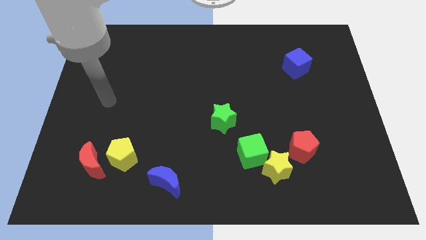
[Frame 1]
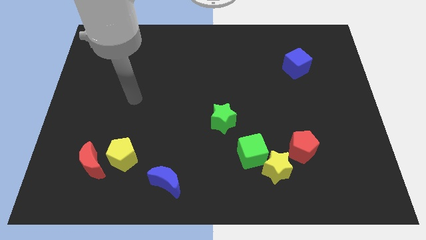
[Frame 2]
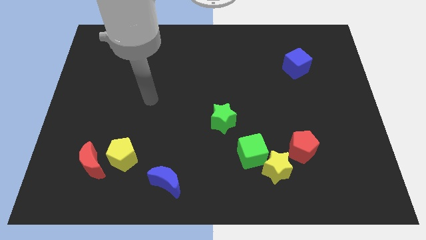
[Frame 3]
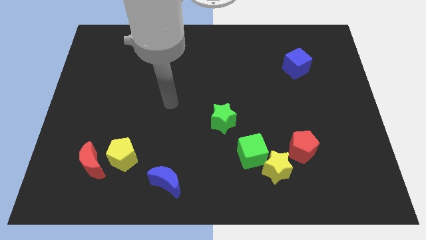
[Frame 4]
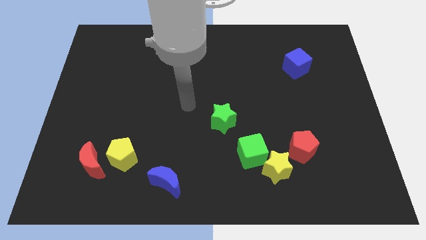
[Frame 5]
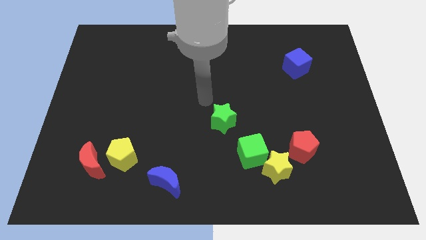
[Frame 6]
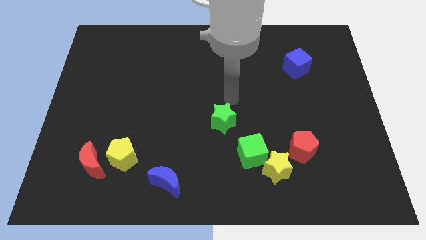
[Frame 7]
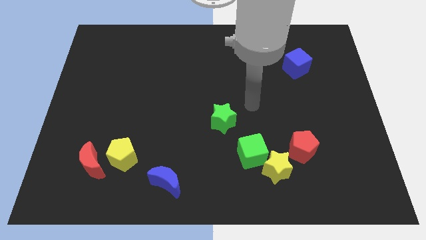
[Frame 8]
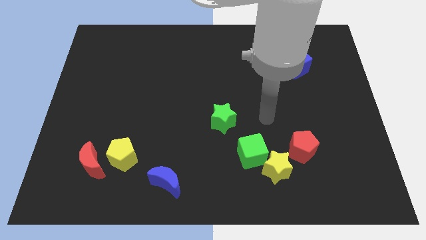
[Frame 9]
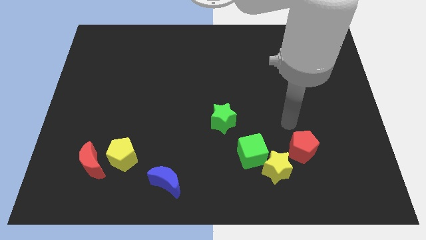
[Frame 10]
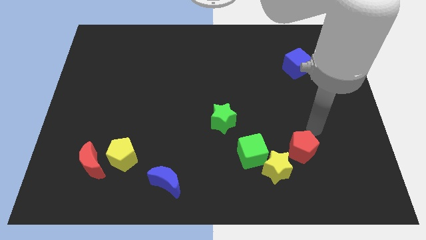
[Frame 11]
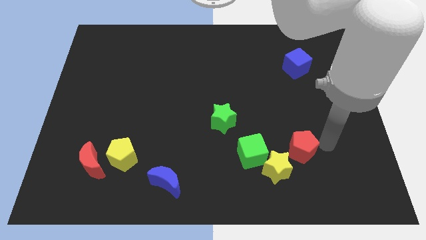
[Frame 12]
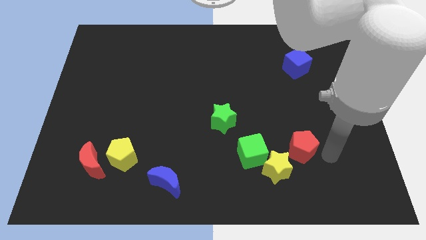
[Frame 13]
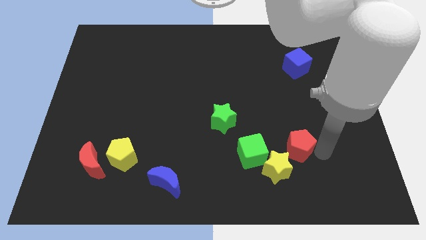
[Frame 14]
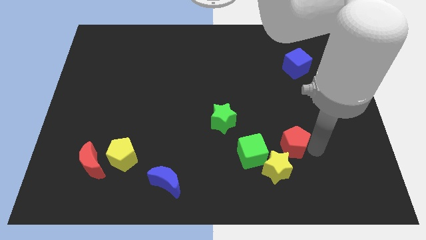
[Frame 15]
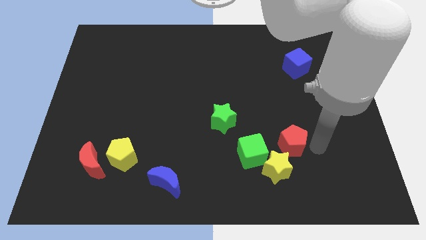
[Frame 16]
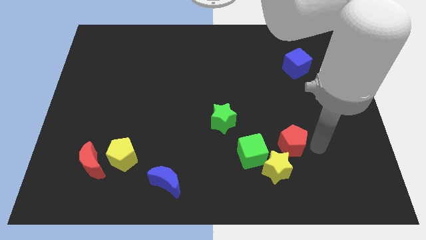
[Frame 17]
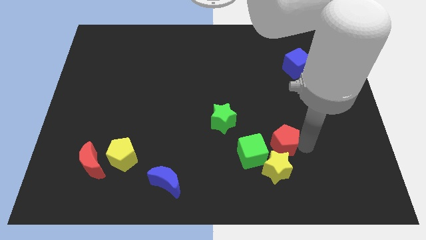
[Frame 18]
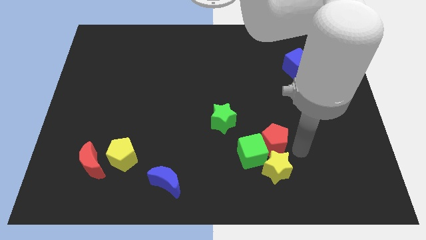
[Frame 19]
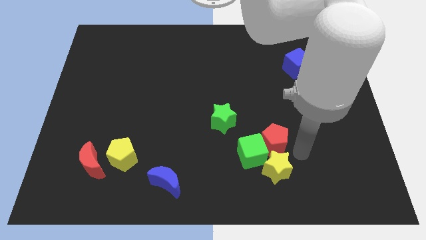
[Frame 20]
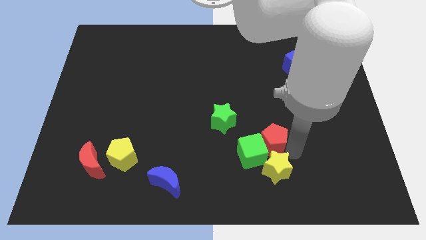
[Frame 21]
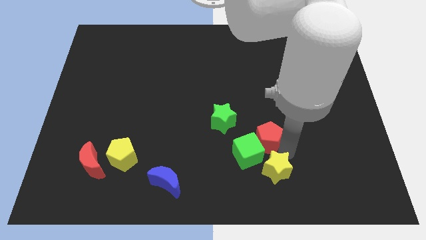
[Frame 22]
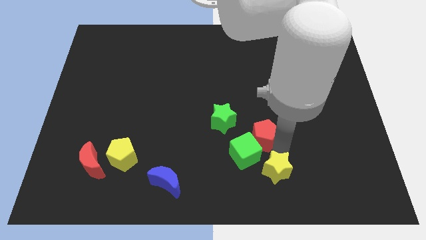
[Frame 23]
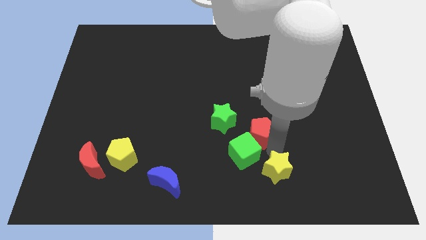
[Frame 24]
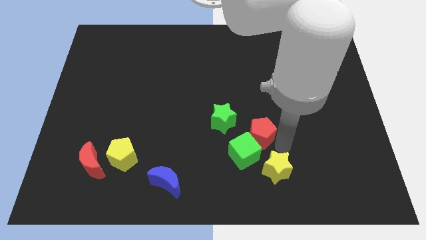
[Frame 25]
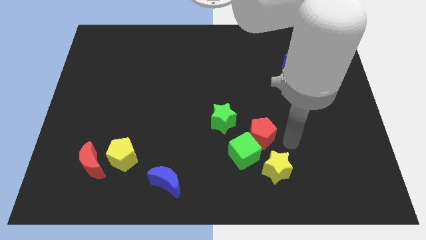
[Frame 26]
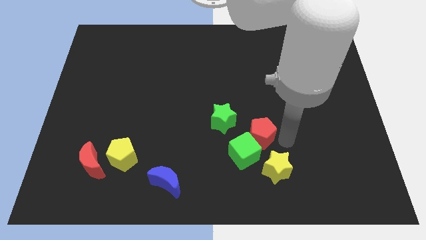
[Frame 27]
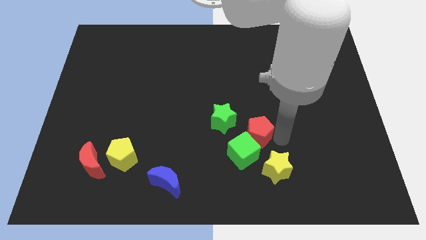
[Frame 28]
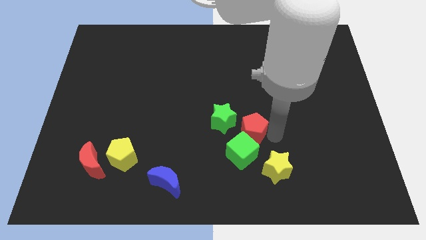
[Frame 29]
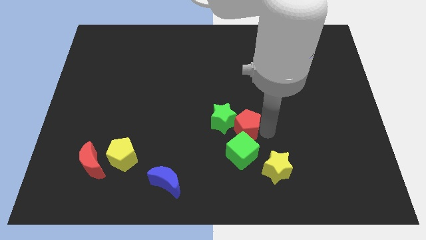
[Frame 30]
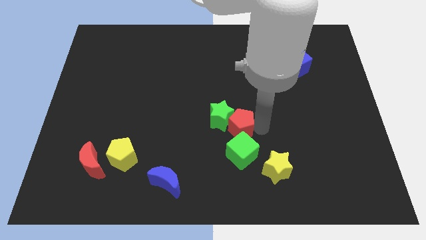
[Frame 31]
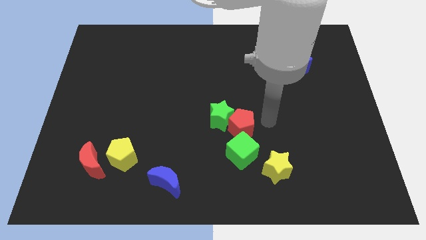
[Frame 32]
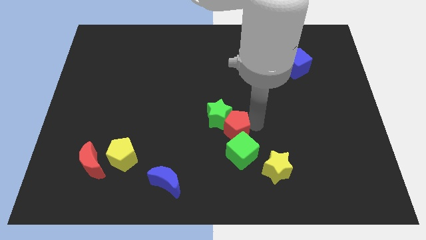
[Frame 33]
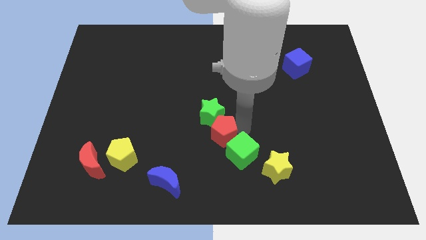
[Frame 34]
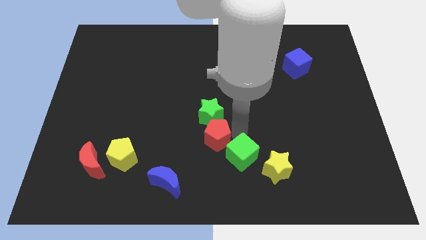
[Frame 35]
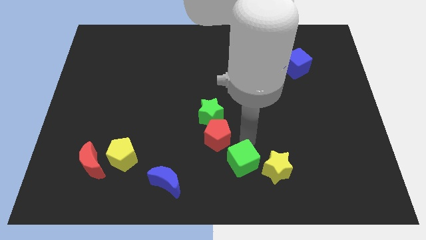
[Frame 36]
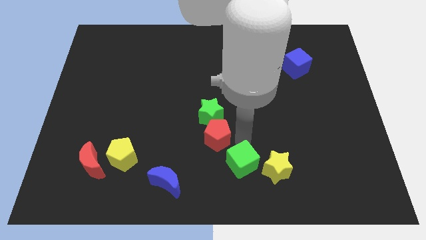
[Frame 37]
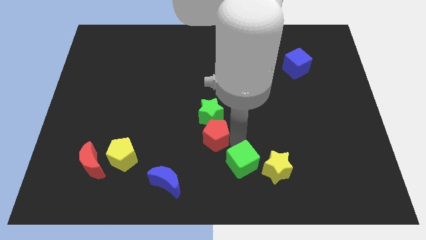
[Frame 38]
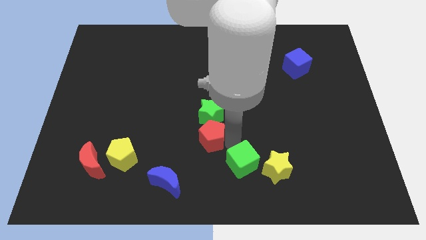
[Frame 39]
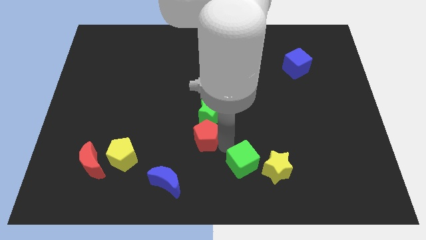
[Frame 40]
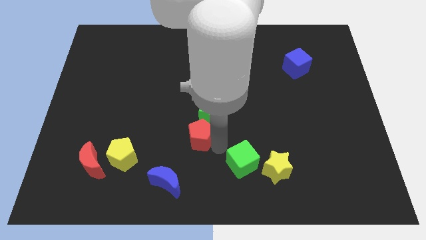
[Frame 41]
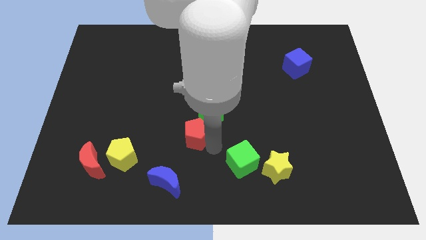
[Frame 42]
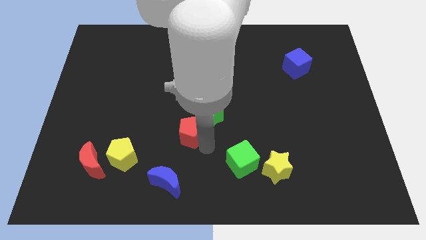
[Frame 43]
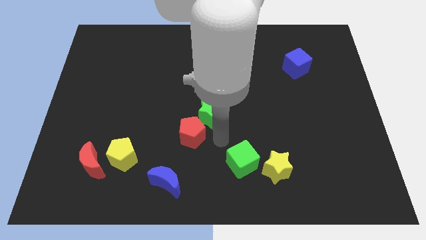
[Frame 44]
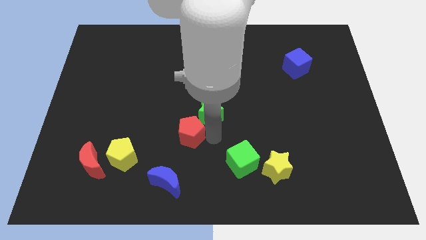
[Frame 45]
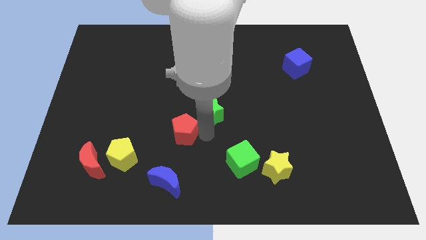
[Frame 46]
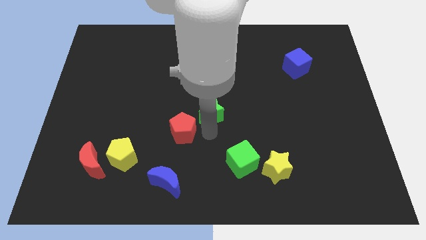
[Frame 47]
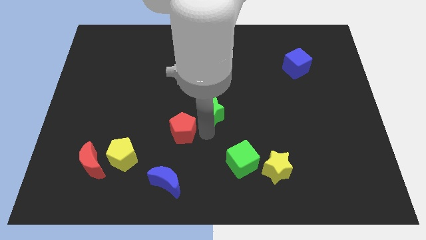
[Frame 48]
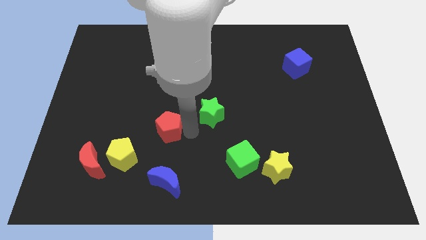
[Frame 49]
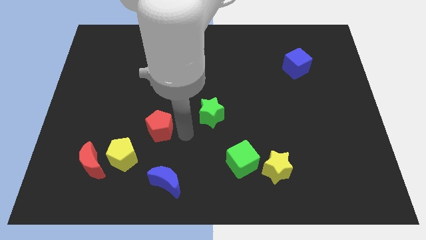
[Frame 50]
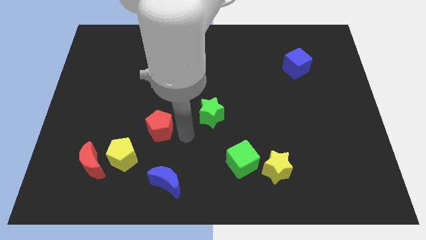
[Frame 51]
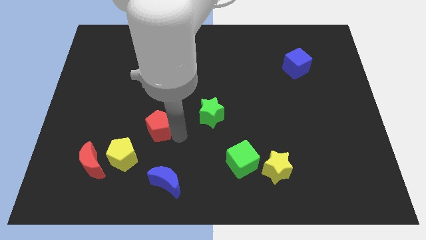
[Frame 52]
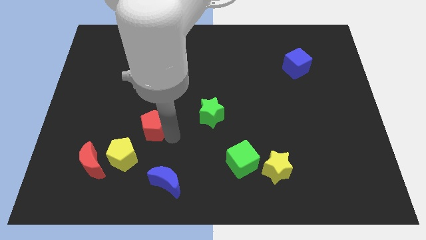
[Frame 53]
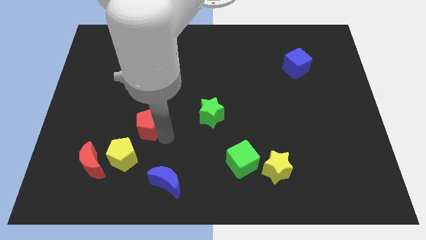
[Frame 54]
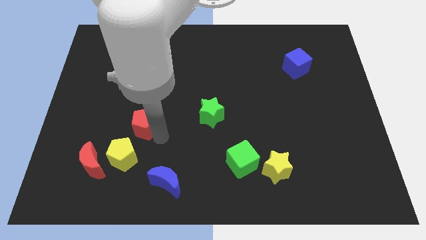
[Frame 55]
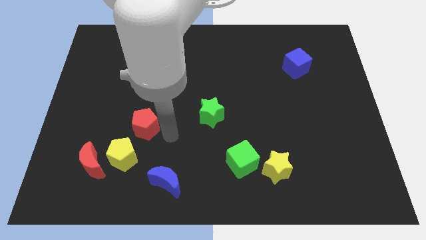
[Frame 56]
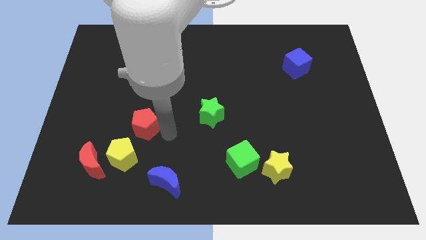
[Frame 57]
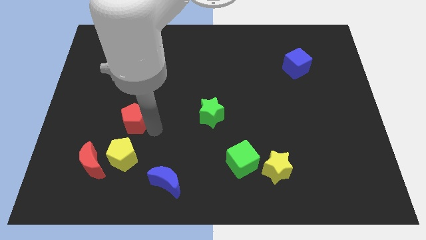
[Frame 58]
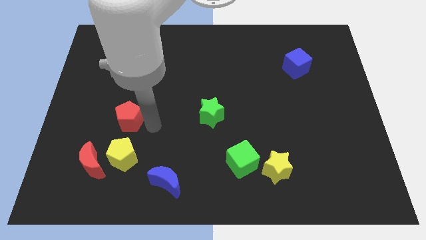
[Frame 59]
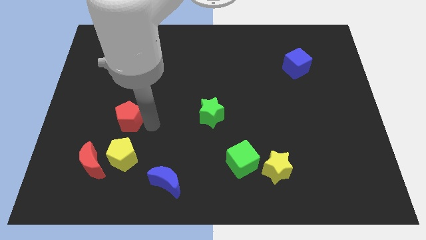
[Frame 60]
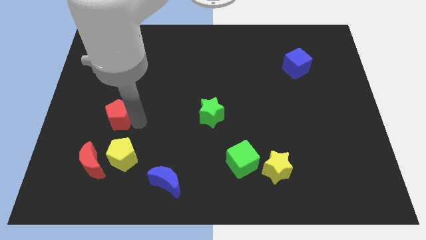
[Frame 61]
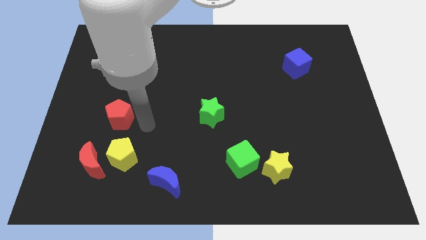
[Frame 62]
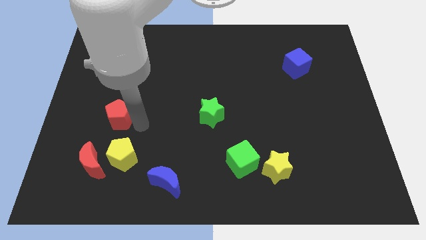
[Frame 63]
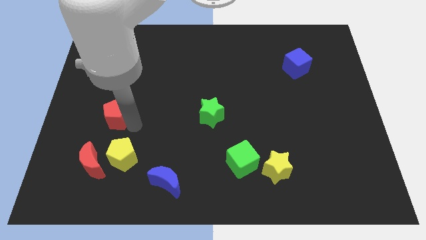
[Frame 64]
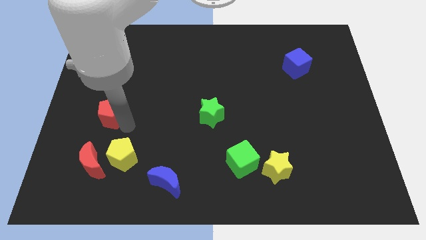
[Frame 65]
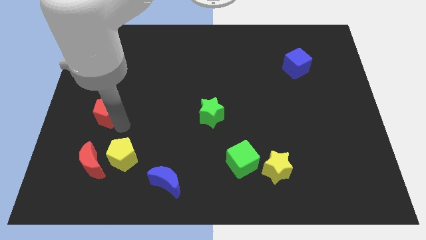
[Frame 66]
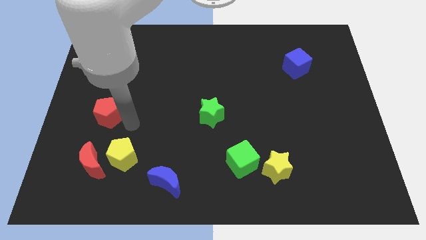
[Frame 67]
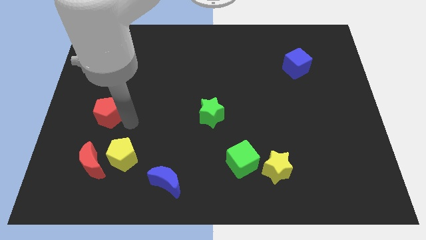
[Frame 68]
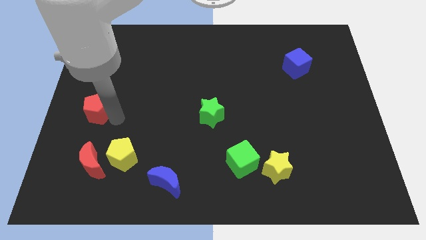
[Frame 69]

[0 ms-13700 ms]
push the red pentagon to the left side of the board
